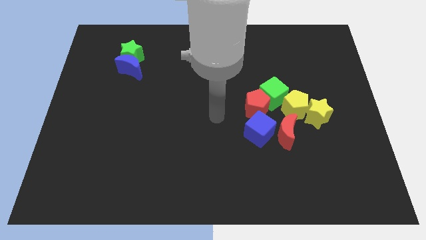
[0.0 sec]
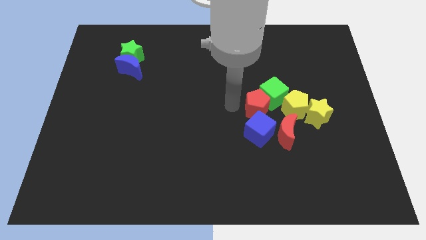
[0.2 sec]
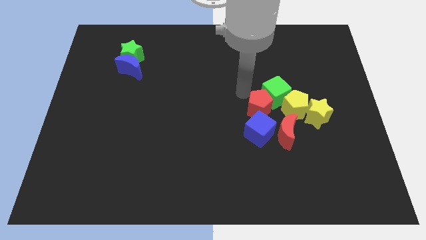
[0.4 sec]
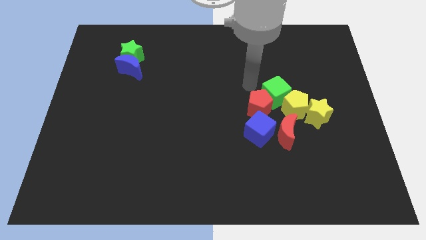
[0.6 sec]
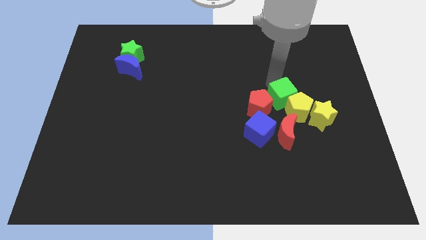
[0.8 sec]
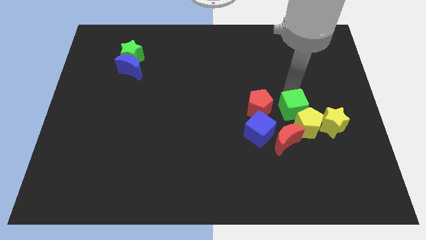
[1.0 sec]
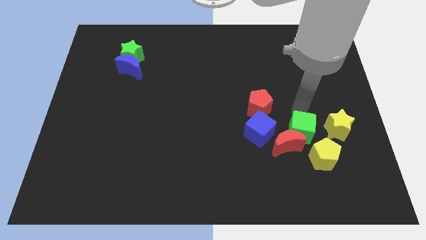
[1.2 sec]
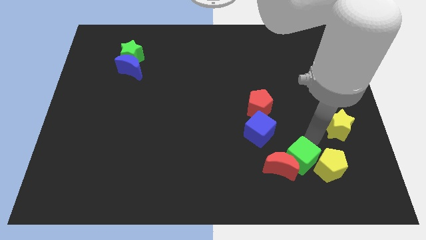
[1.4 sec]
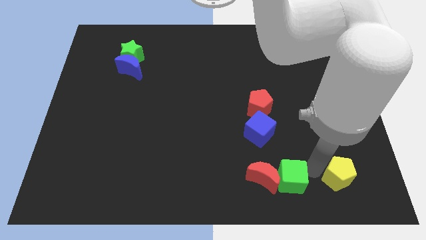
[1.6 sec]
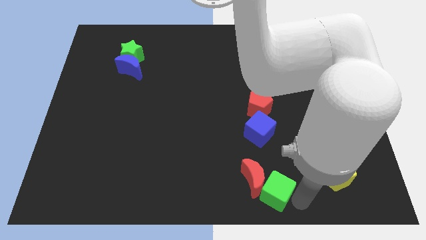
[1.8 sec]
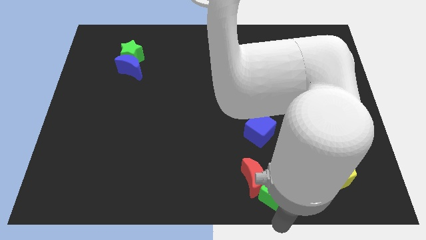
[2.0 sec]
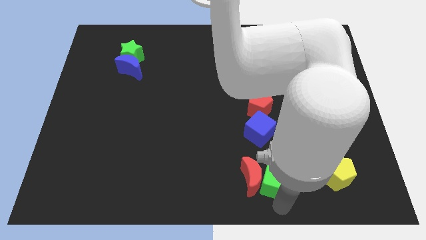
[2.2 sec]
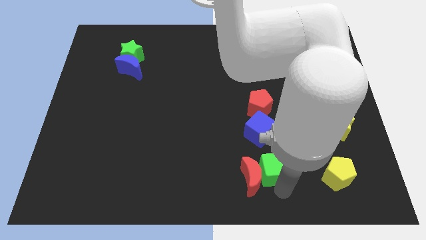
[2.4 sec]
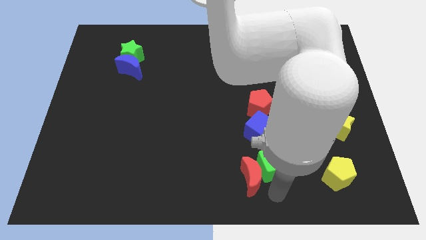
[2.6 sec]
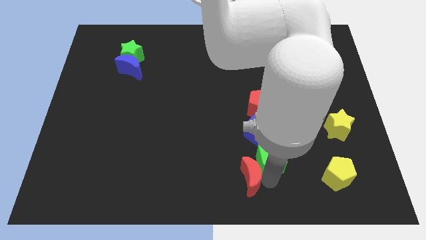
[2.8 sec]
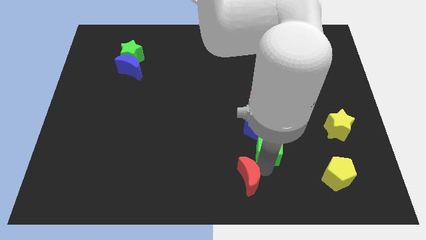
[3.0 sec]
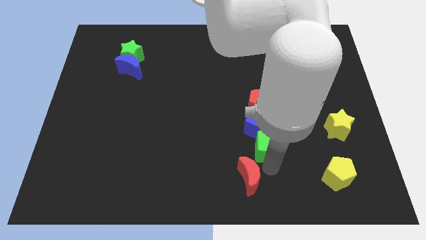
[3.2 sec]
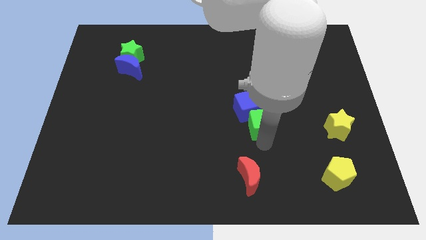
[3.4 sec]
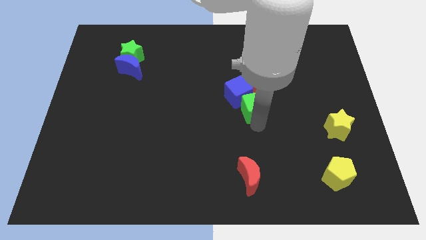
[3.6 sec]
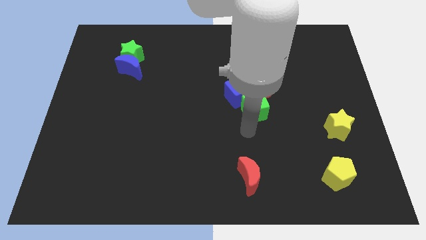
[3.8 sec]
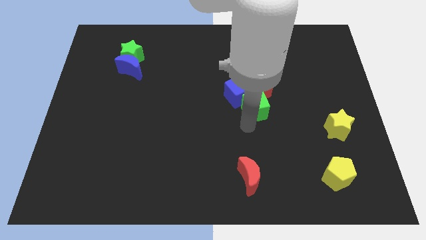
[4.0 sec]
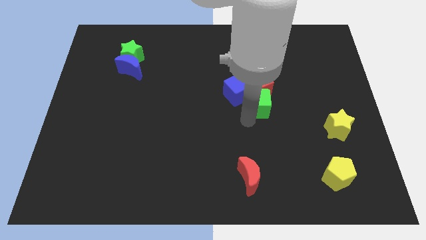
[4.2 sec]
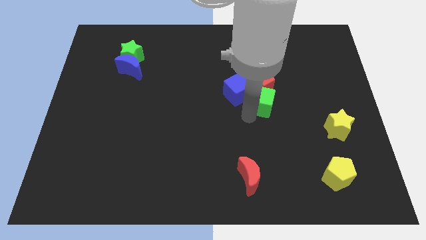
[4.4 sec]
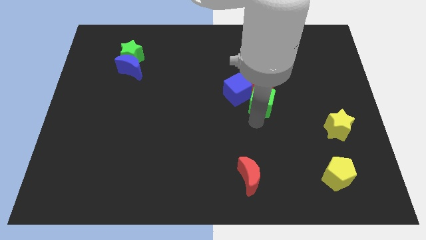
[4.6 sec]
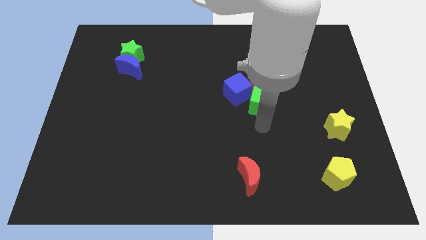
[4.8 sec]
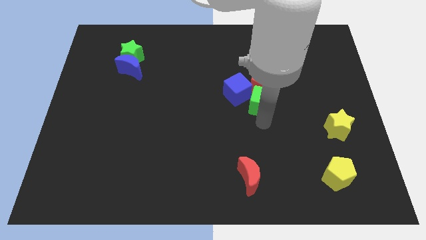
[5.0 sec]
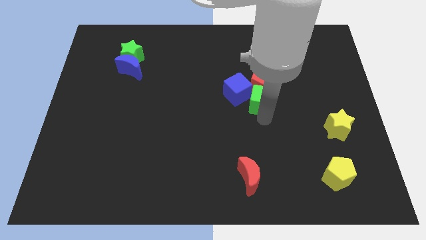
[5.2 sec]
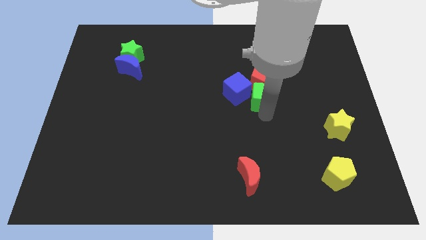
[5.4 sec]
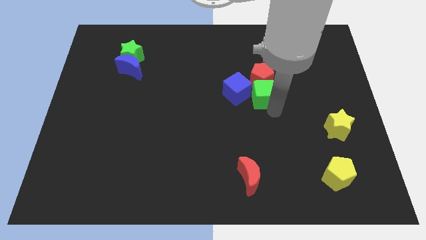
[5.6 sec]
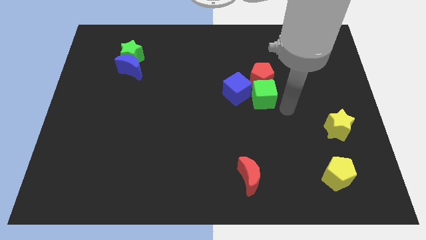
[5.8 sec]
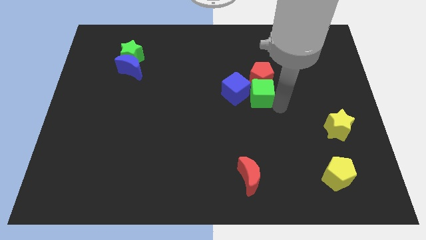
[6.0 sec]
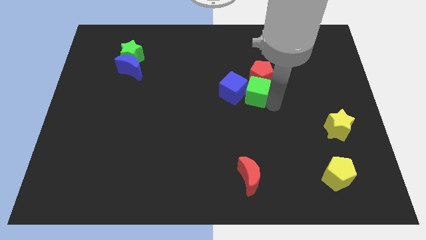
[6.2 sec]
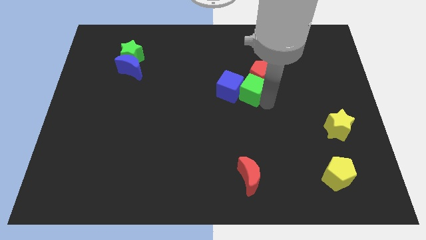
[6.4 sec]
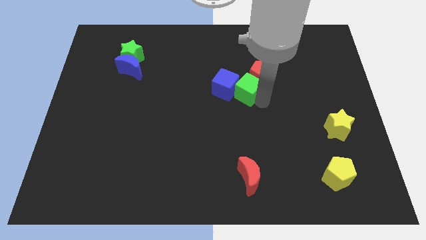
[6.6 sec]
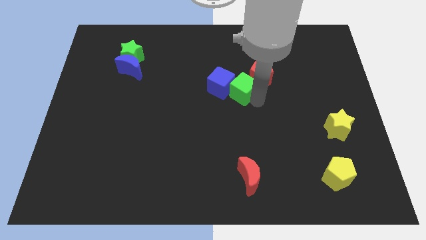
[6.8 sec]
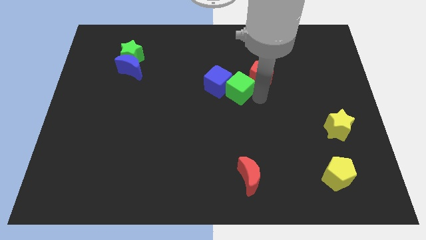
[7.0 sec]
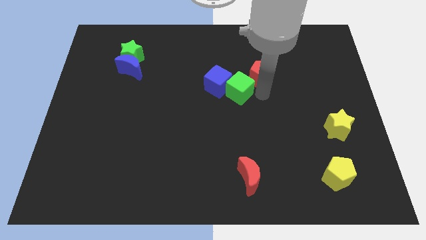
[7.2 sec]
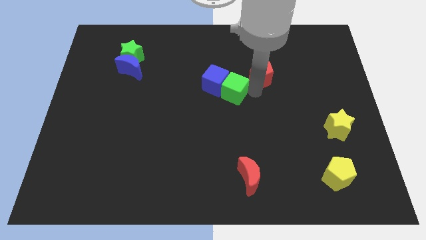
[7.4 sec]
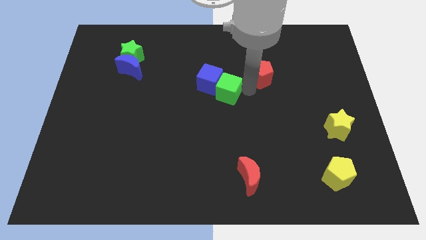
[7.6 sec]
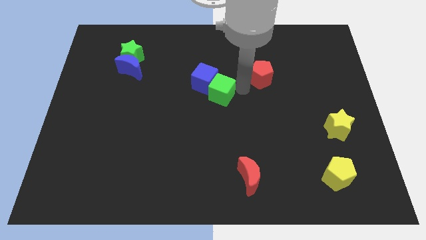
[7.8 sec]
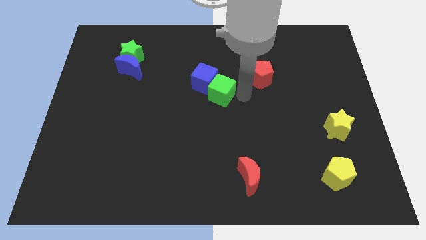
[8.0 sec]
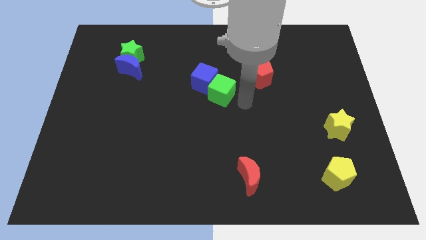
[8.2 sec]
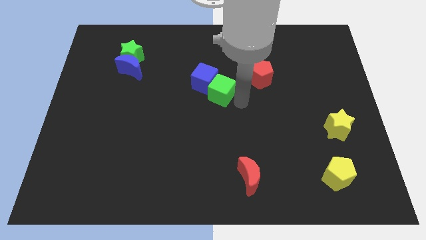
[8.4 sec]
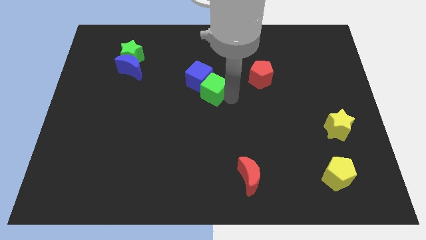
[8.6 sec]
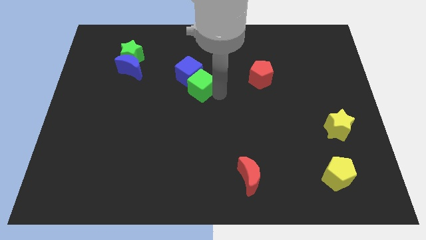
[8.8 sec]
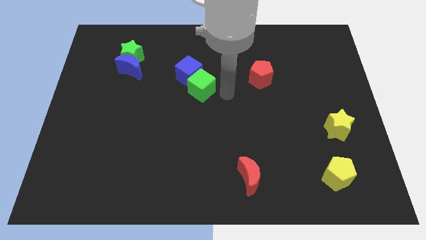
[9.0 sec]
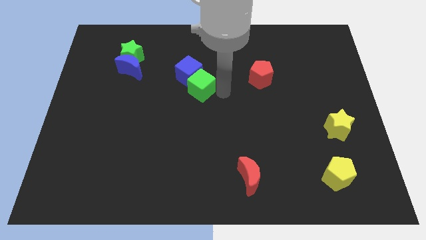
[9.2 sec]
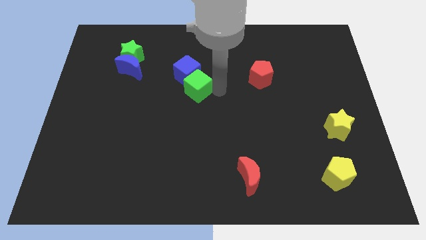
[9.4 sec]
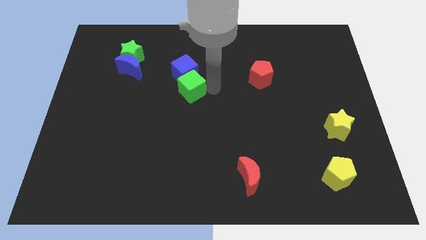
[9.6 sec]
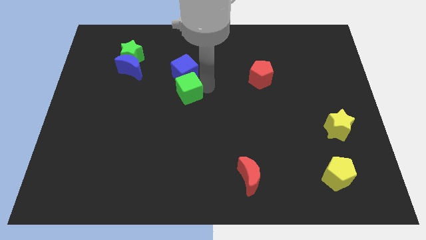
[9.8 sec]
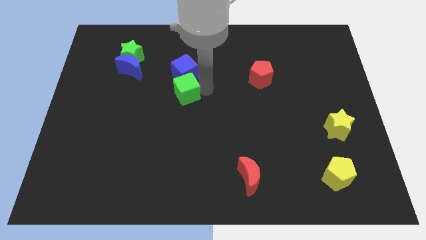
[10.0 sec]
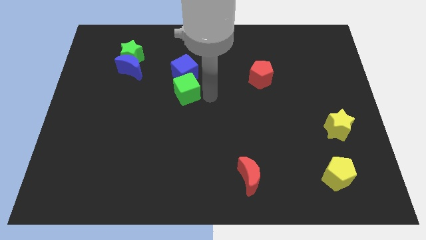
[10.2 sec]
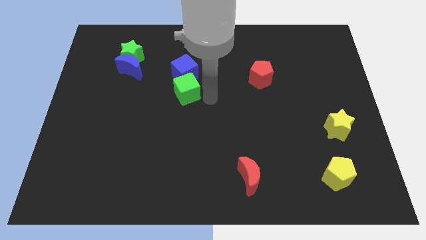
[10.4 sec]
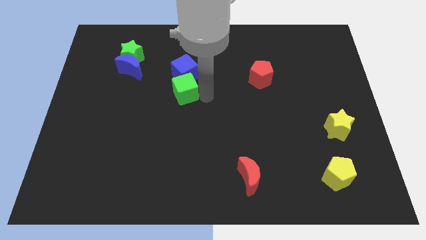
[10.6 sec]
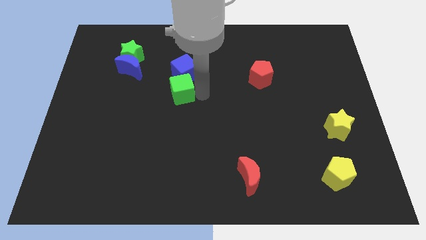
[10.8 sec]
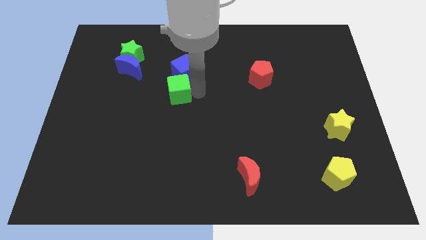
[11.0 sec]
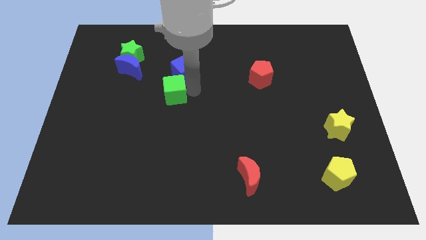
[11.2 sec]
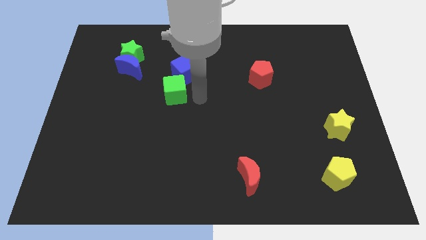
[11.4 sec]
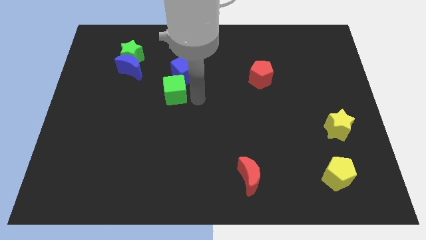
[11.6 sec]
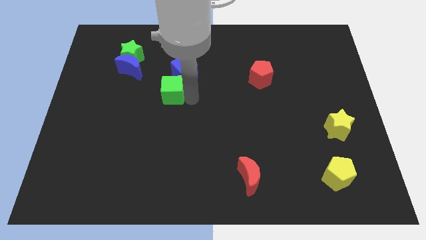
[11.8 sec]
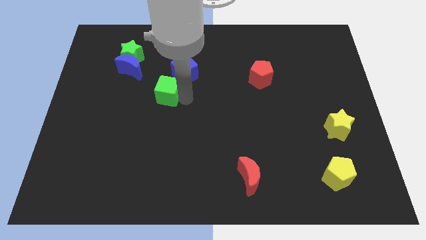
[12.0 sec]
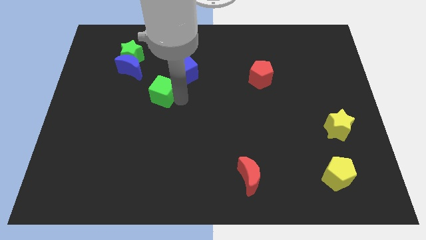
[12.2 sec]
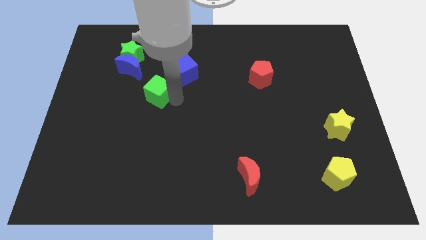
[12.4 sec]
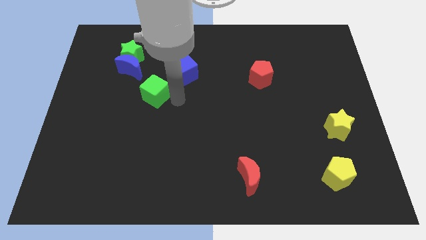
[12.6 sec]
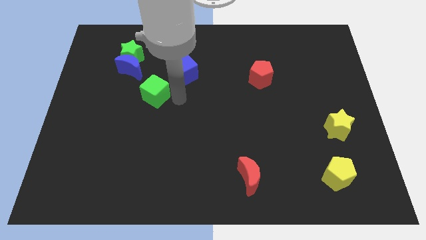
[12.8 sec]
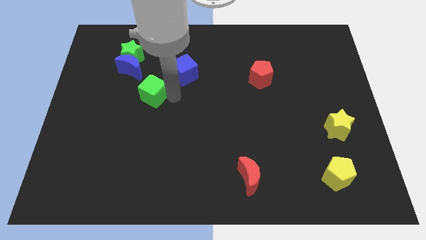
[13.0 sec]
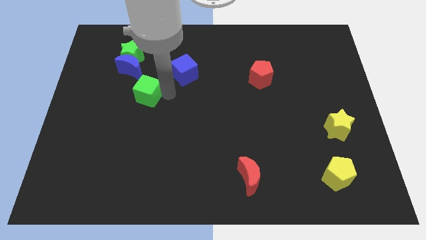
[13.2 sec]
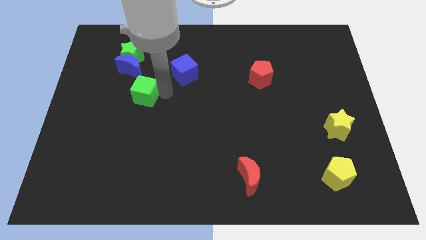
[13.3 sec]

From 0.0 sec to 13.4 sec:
put the green cube to the bottom side of the green star

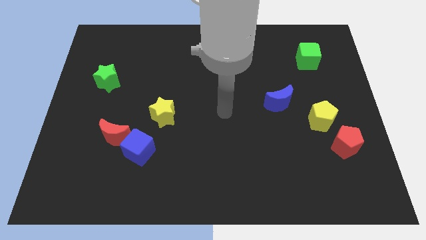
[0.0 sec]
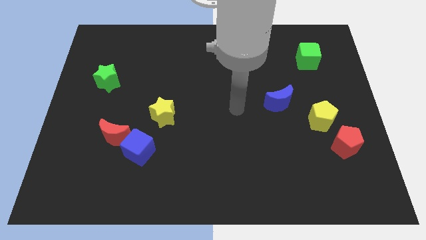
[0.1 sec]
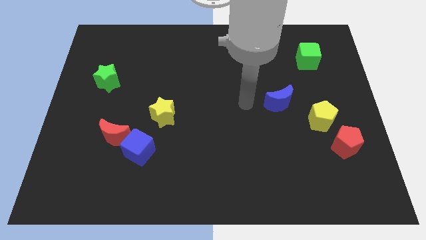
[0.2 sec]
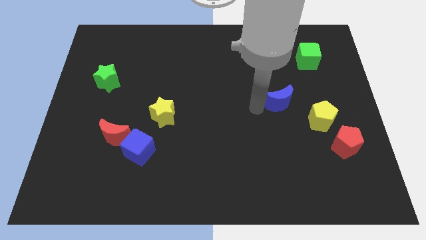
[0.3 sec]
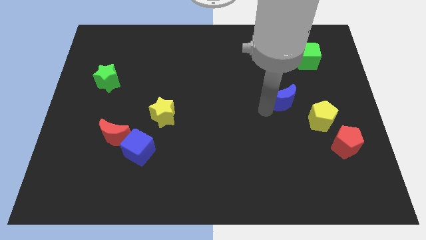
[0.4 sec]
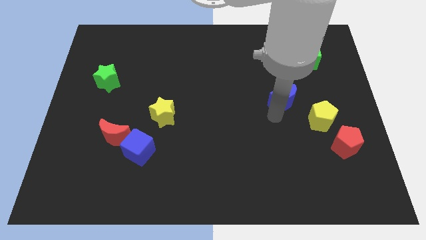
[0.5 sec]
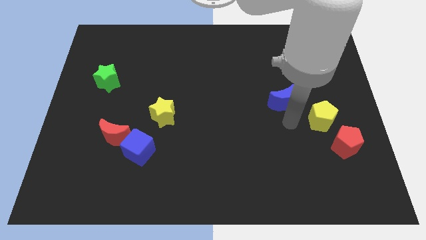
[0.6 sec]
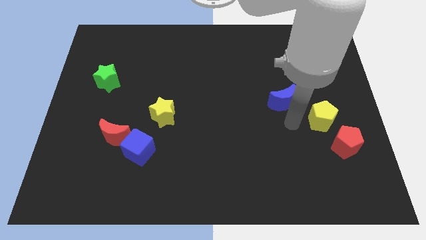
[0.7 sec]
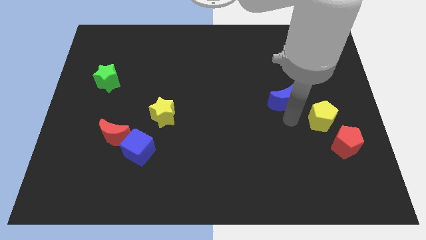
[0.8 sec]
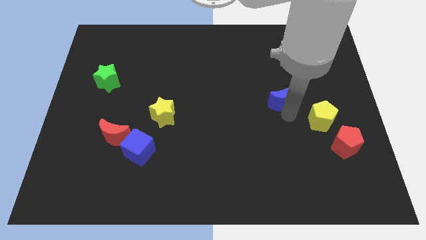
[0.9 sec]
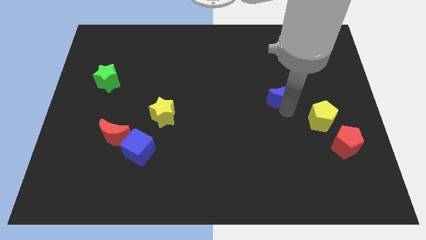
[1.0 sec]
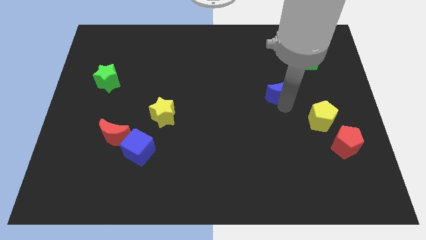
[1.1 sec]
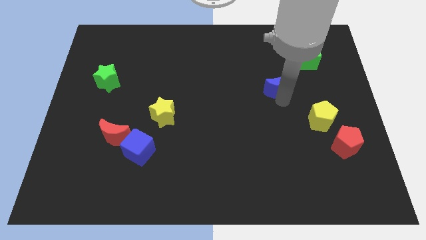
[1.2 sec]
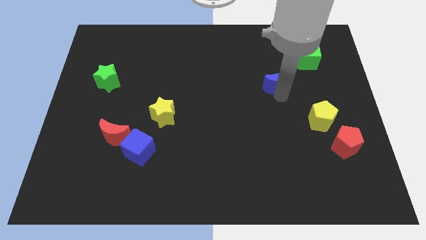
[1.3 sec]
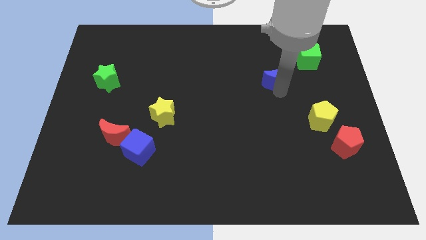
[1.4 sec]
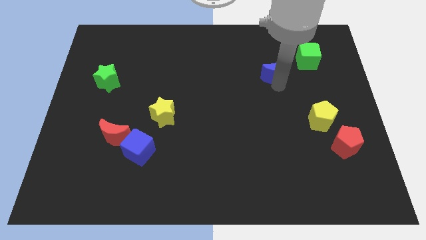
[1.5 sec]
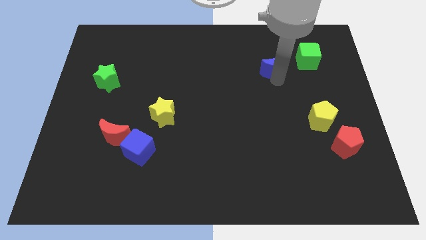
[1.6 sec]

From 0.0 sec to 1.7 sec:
put the blue moon to the left side of the green cube
